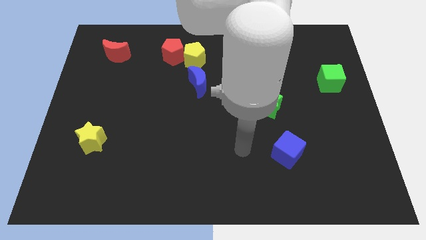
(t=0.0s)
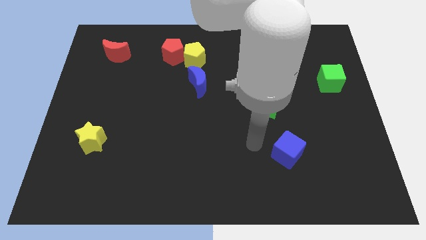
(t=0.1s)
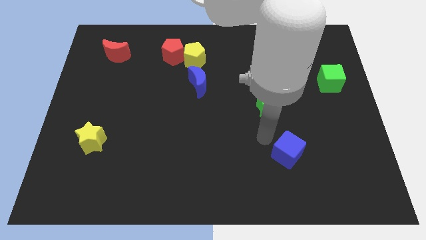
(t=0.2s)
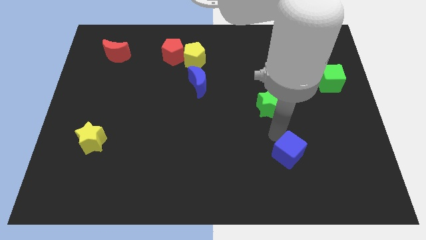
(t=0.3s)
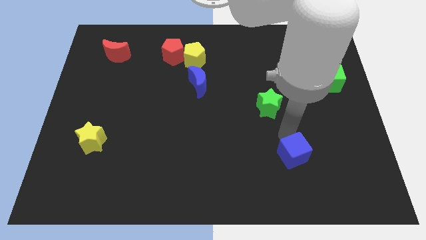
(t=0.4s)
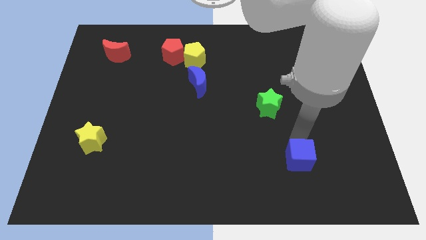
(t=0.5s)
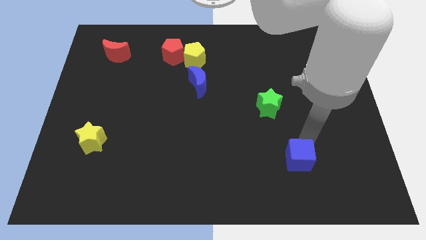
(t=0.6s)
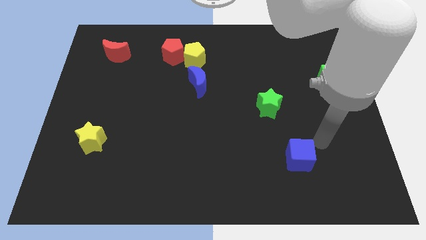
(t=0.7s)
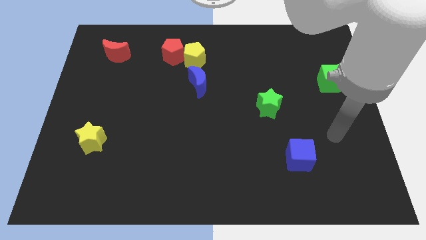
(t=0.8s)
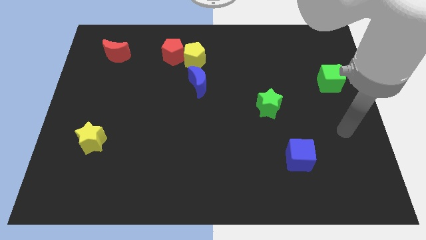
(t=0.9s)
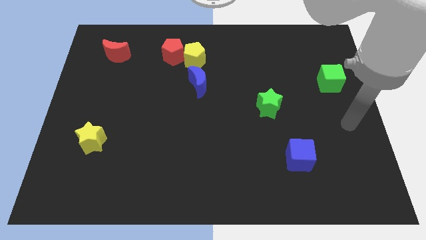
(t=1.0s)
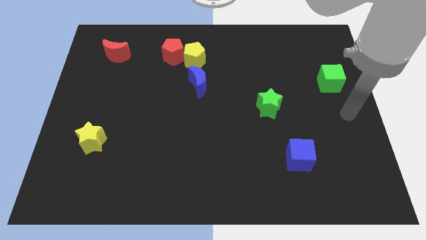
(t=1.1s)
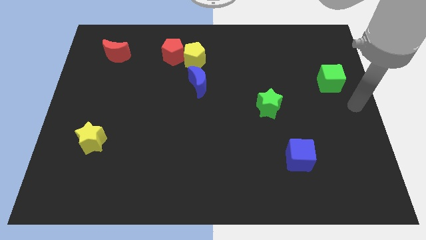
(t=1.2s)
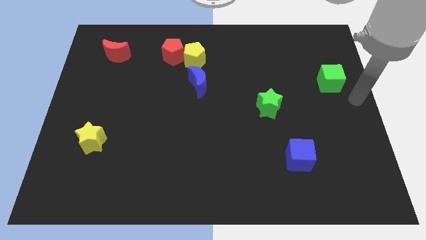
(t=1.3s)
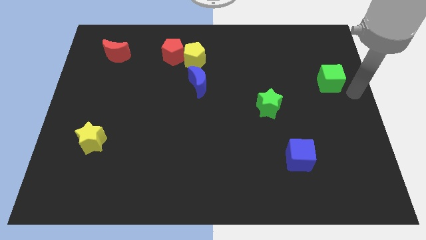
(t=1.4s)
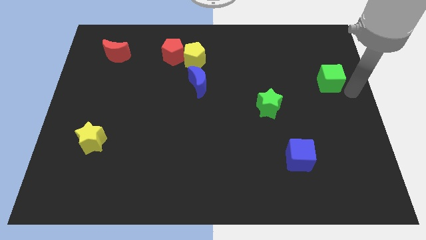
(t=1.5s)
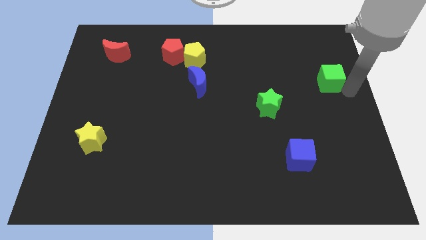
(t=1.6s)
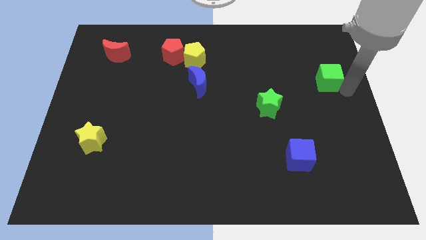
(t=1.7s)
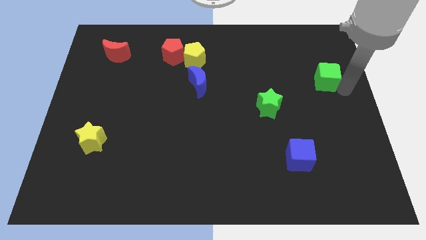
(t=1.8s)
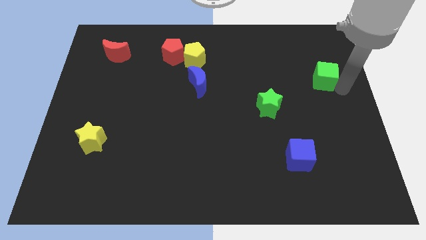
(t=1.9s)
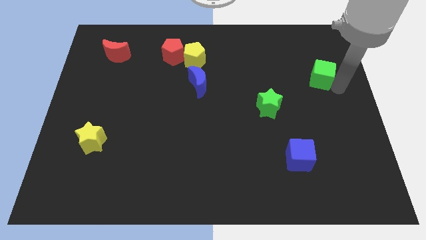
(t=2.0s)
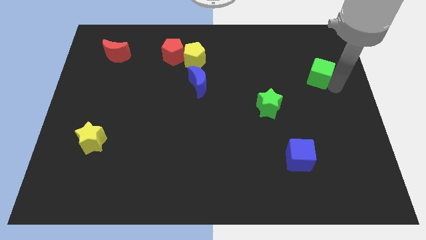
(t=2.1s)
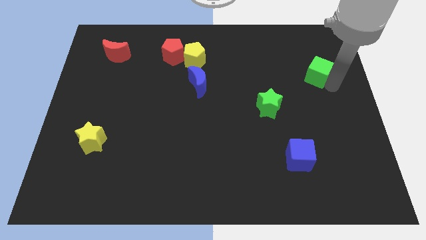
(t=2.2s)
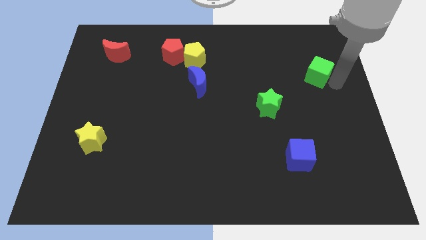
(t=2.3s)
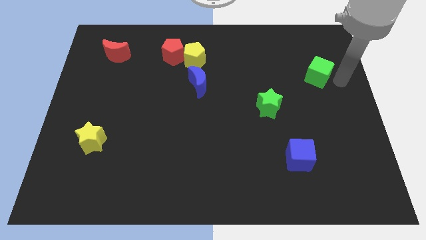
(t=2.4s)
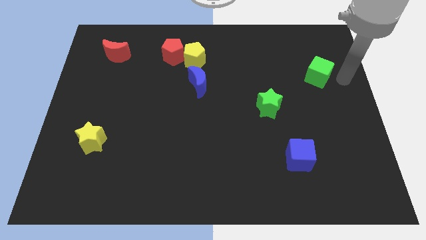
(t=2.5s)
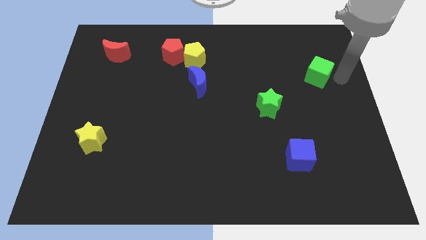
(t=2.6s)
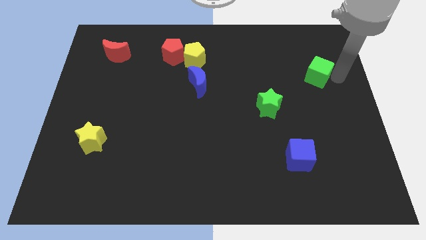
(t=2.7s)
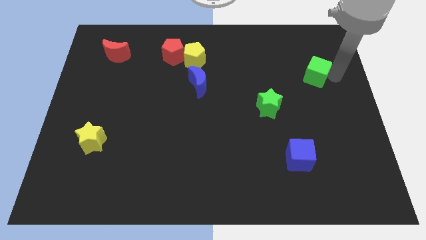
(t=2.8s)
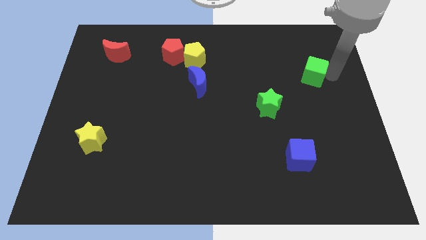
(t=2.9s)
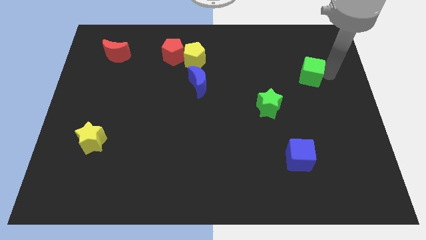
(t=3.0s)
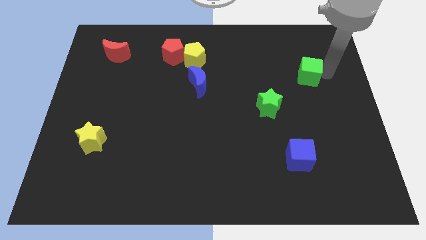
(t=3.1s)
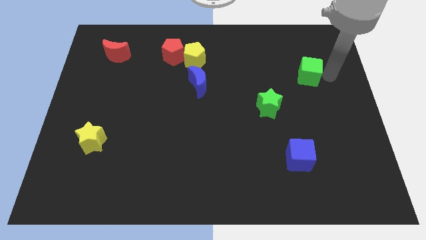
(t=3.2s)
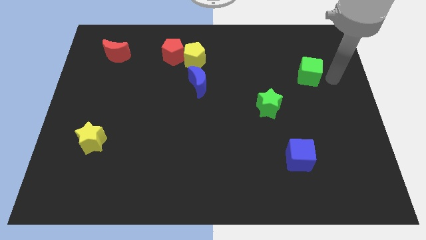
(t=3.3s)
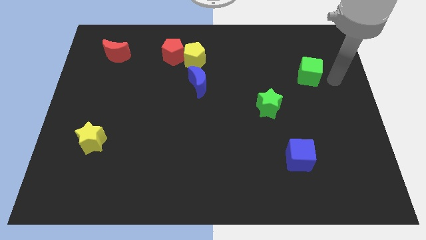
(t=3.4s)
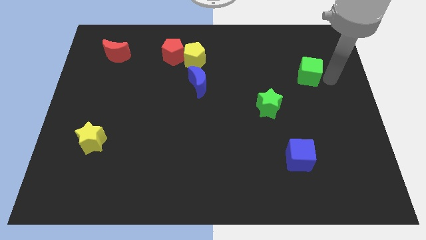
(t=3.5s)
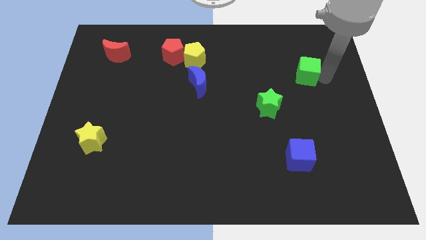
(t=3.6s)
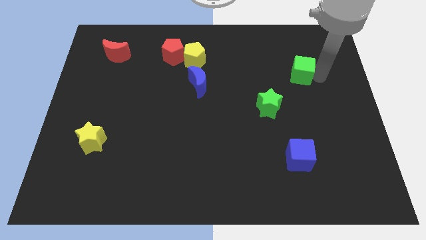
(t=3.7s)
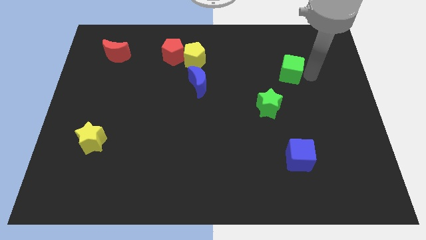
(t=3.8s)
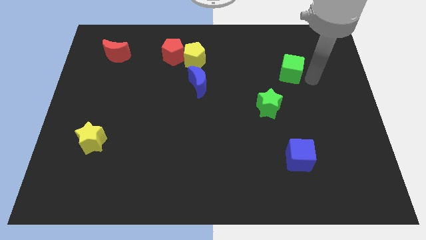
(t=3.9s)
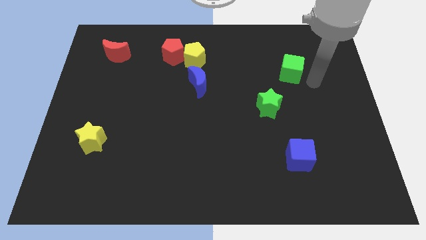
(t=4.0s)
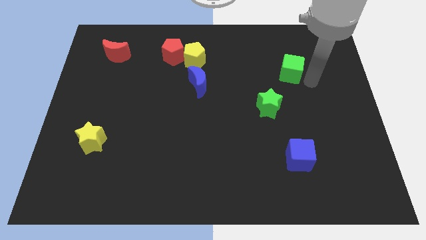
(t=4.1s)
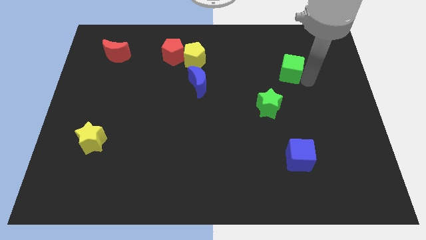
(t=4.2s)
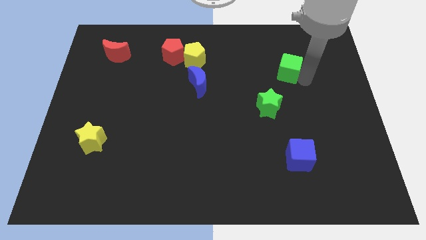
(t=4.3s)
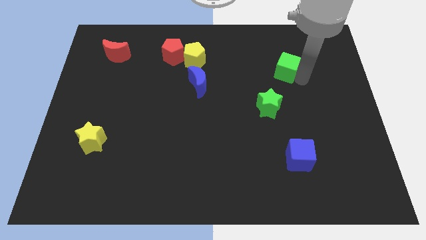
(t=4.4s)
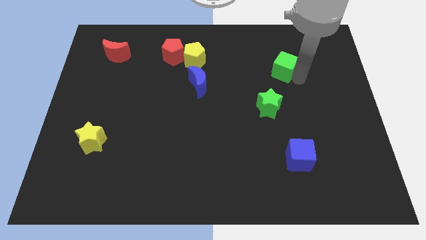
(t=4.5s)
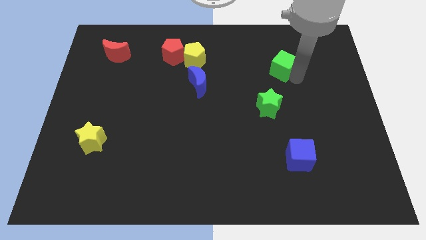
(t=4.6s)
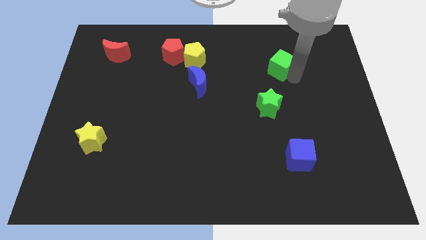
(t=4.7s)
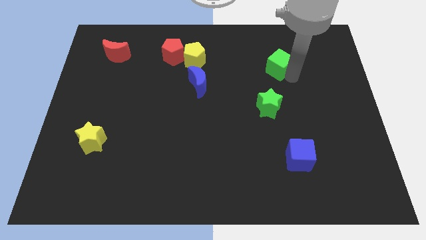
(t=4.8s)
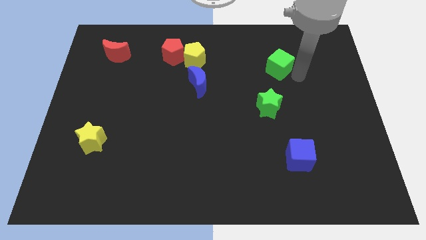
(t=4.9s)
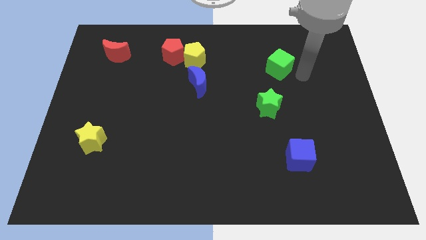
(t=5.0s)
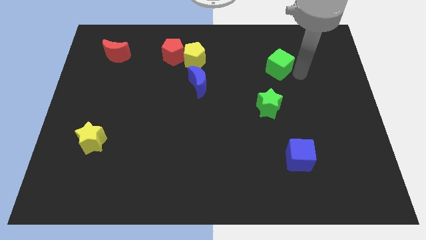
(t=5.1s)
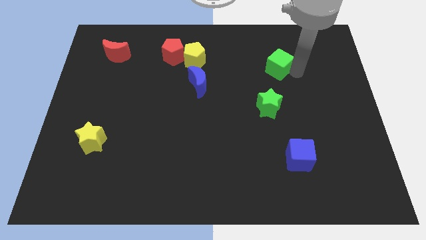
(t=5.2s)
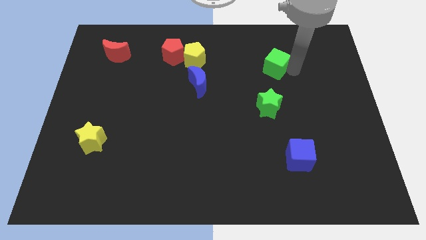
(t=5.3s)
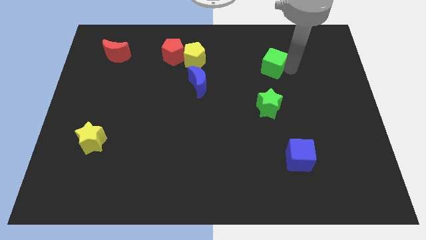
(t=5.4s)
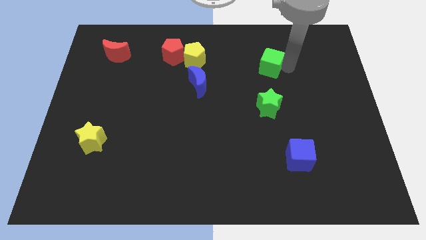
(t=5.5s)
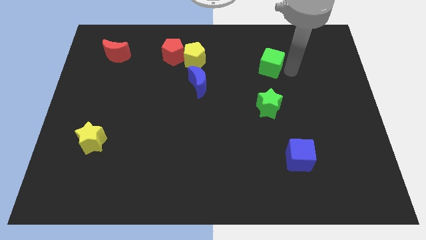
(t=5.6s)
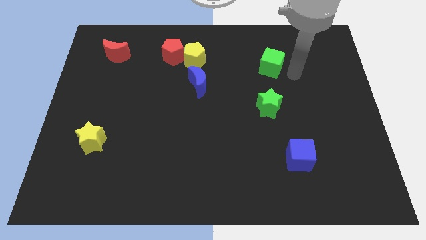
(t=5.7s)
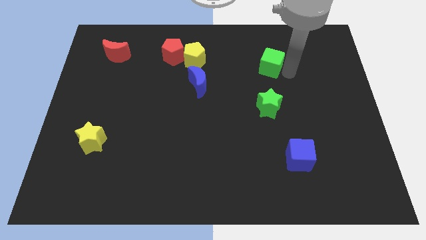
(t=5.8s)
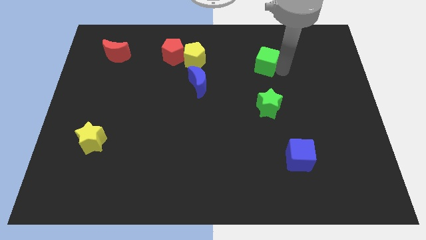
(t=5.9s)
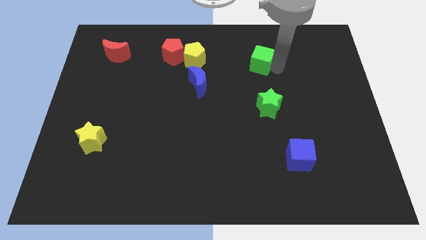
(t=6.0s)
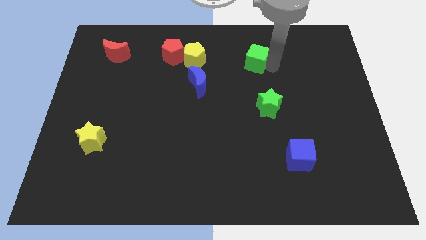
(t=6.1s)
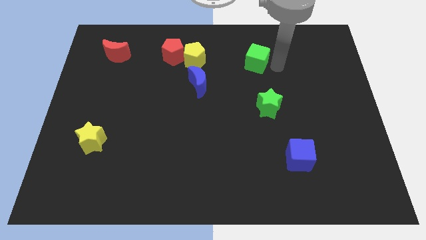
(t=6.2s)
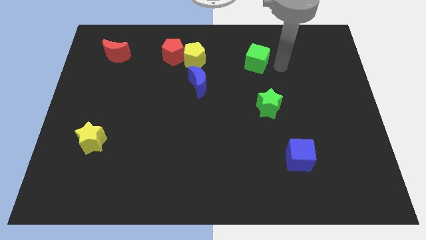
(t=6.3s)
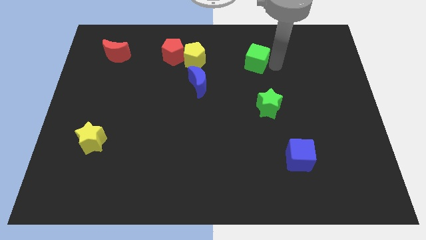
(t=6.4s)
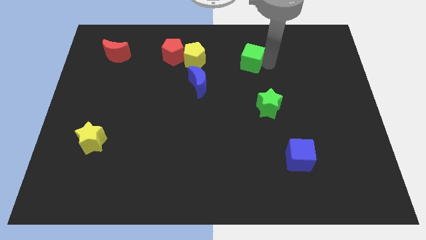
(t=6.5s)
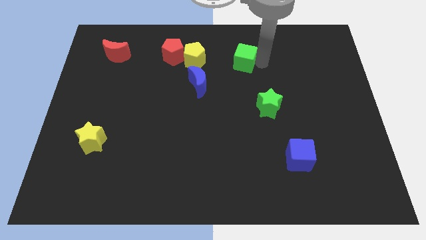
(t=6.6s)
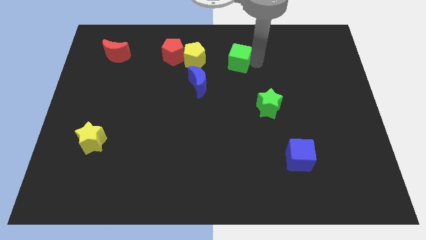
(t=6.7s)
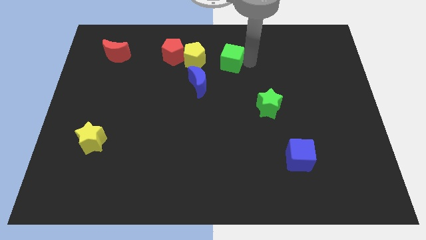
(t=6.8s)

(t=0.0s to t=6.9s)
push the green cube just right of the red pentagon
